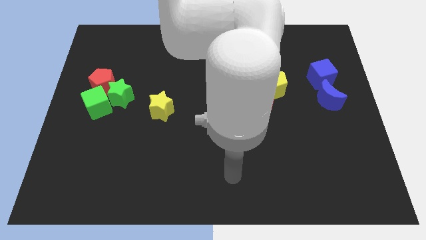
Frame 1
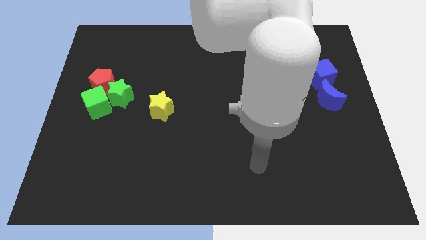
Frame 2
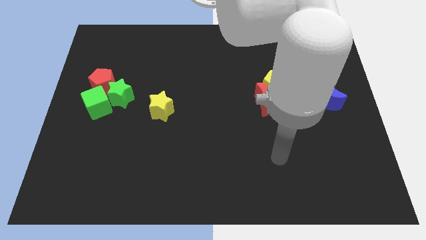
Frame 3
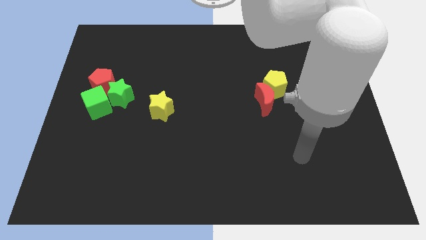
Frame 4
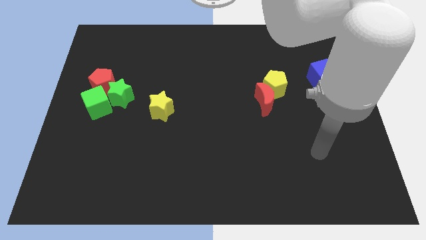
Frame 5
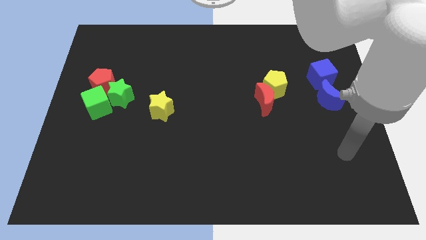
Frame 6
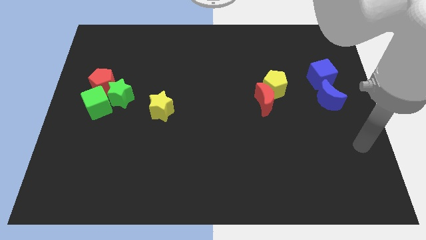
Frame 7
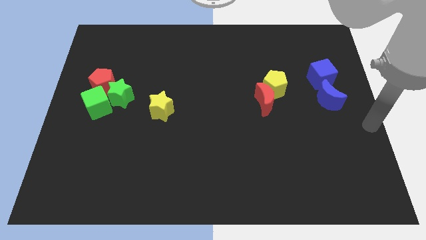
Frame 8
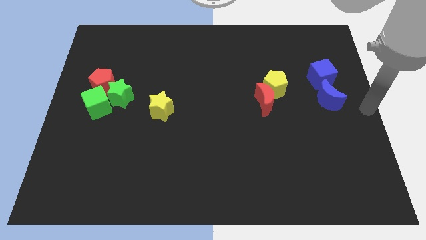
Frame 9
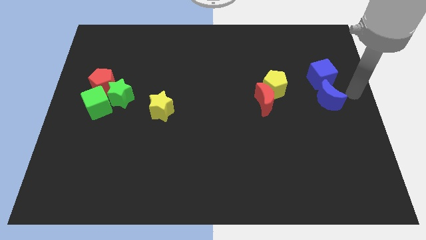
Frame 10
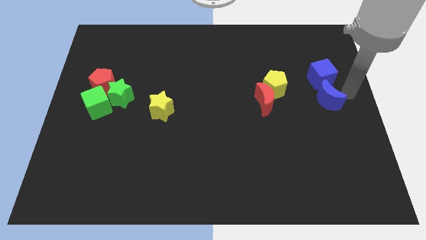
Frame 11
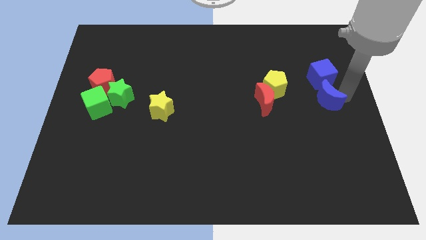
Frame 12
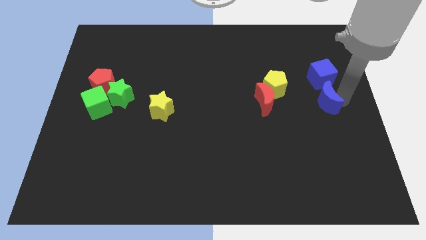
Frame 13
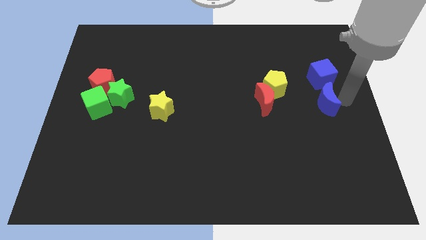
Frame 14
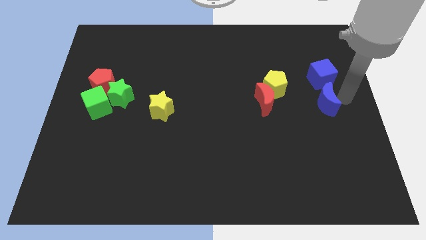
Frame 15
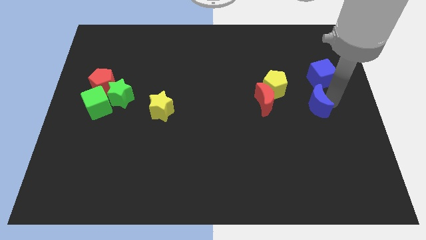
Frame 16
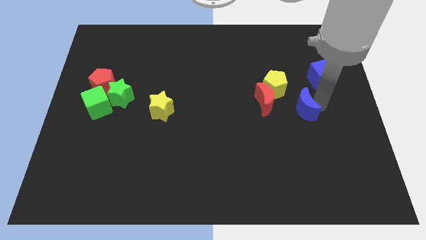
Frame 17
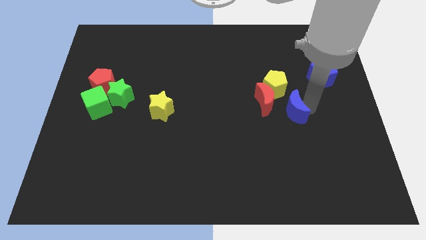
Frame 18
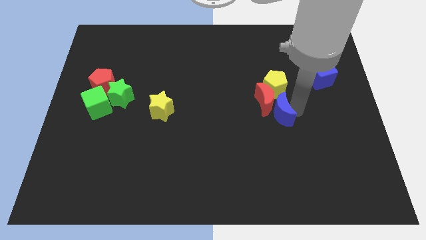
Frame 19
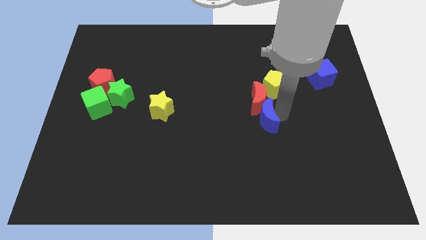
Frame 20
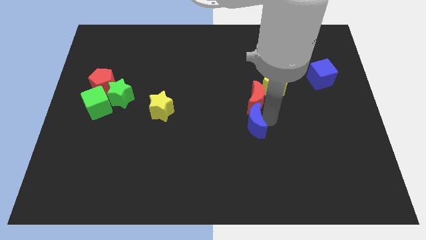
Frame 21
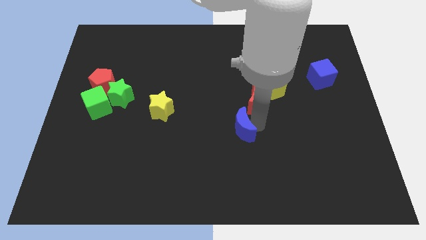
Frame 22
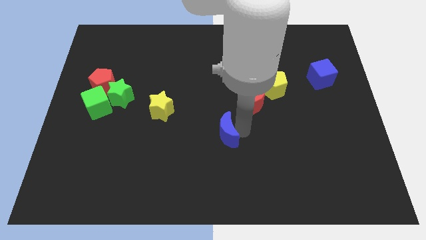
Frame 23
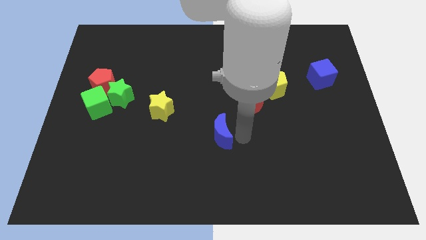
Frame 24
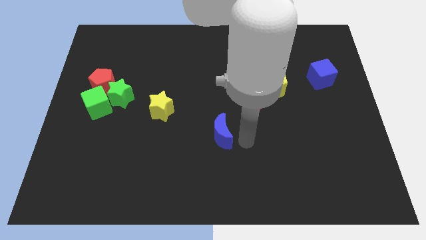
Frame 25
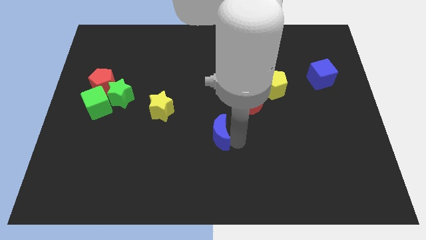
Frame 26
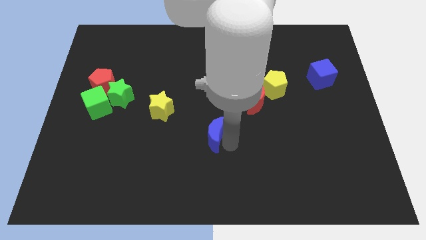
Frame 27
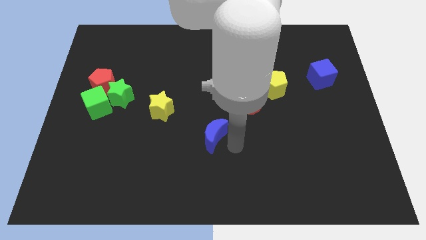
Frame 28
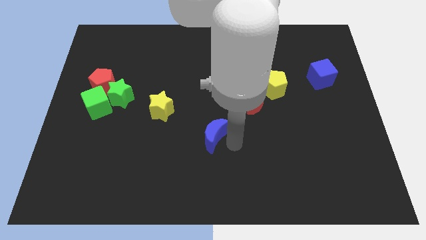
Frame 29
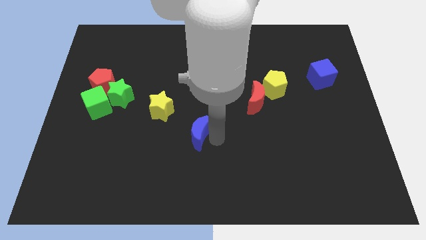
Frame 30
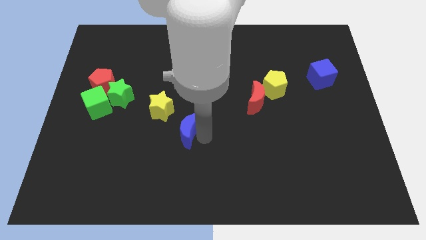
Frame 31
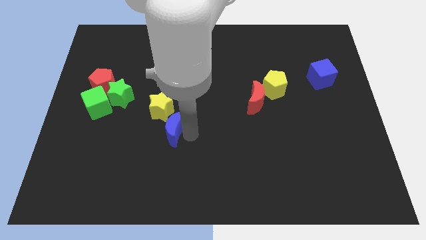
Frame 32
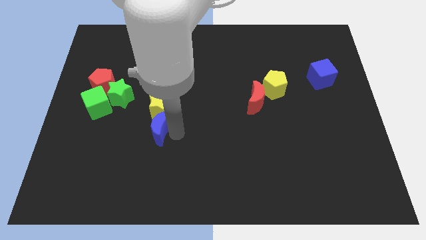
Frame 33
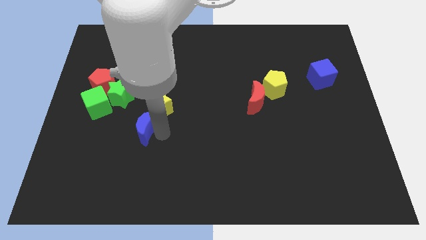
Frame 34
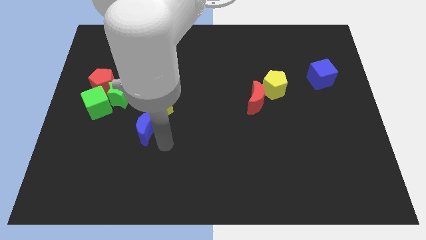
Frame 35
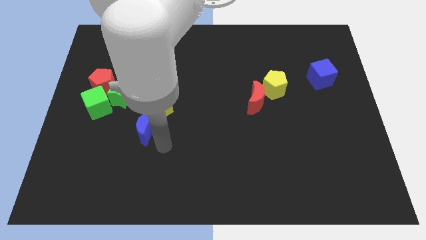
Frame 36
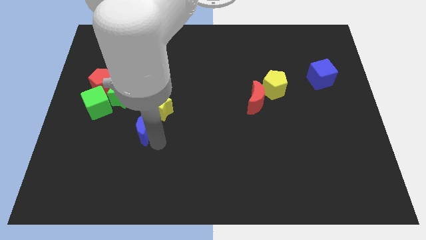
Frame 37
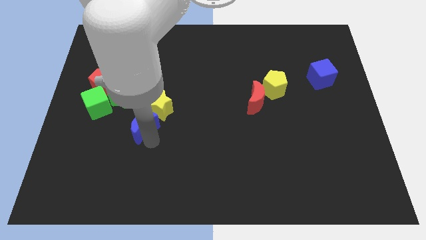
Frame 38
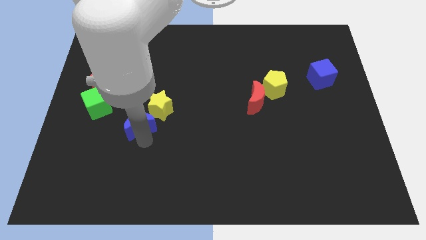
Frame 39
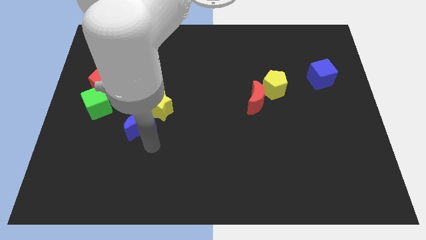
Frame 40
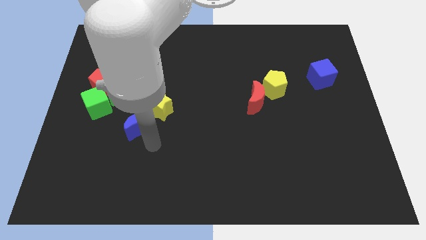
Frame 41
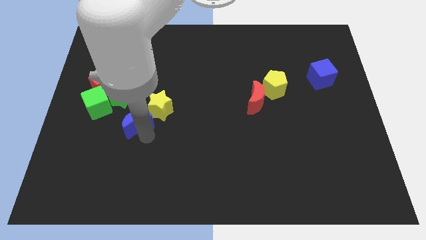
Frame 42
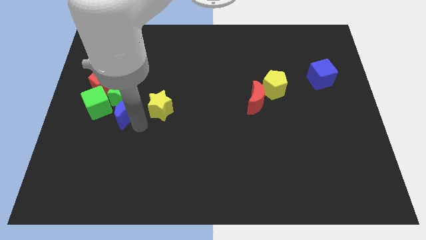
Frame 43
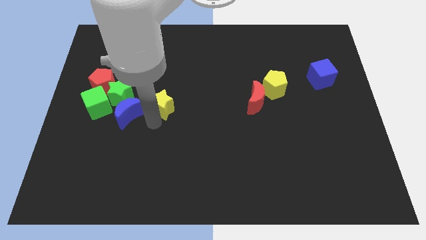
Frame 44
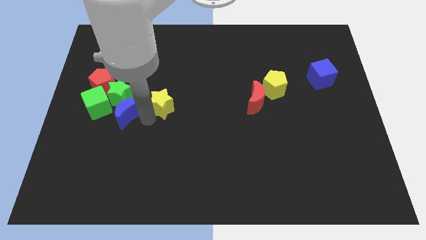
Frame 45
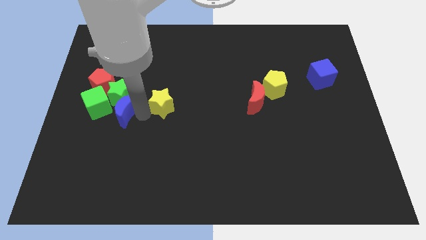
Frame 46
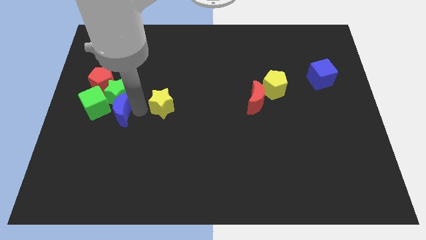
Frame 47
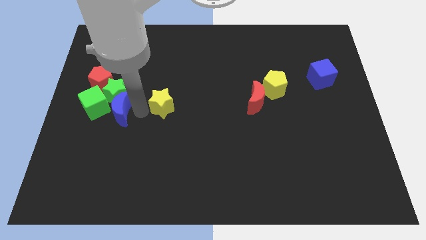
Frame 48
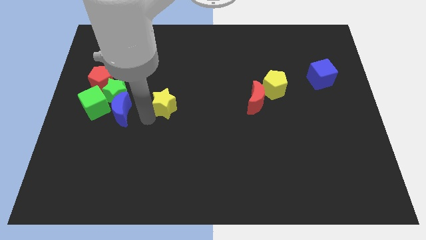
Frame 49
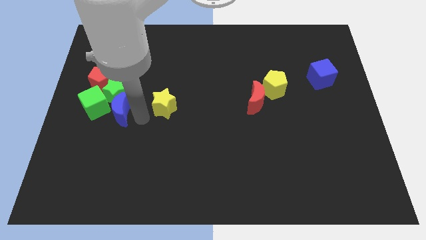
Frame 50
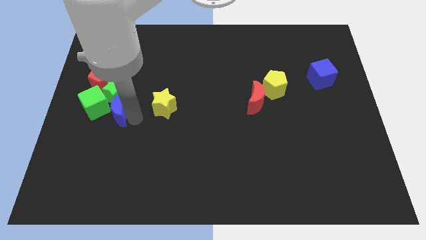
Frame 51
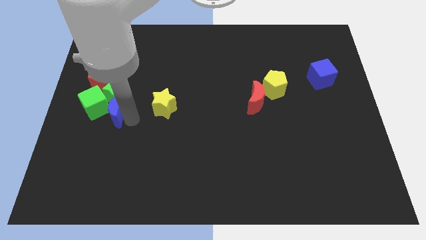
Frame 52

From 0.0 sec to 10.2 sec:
put the blue moon towards the green cube

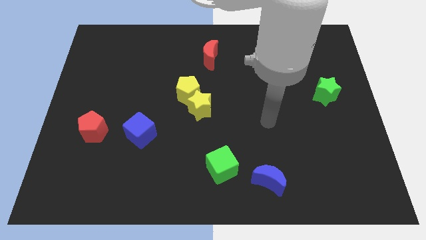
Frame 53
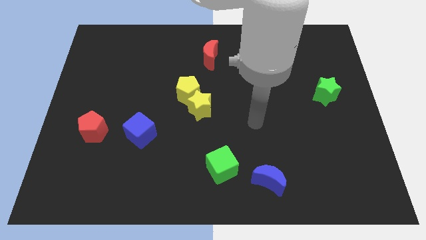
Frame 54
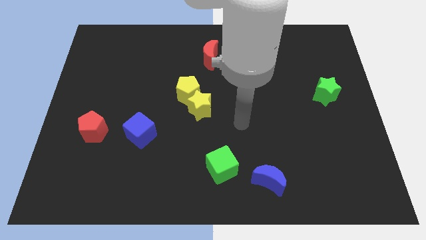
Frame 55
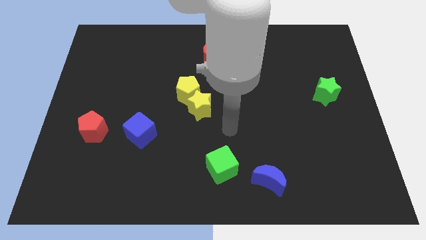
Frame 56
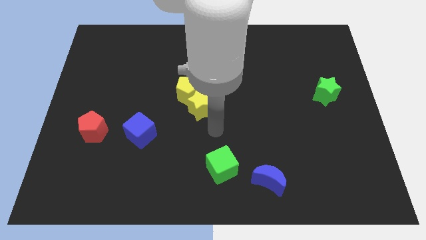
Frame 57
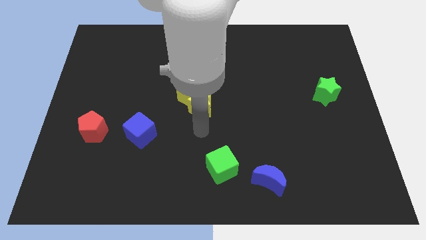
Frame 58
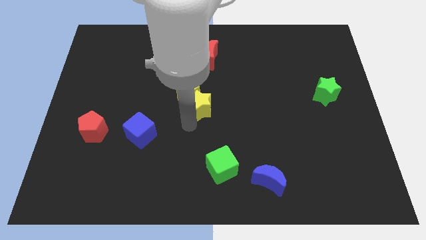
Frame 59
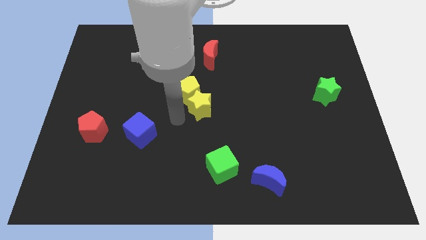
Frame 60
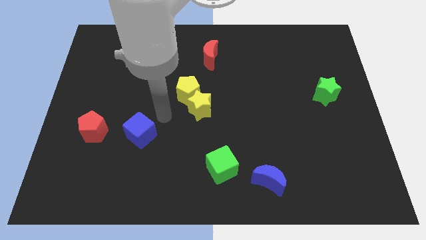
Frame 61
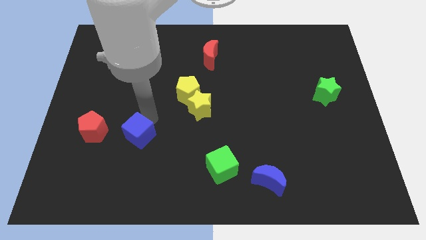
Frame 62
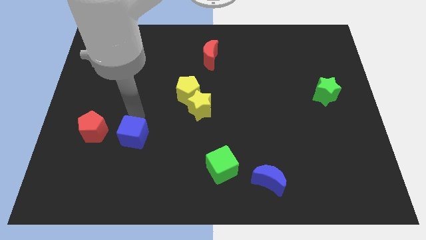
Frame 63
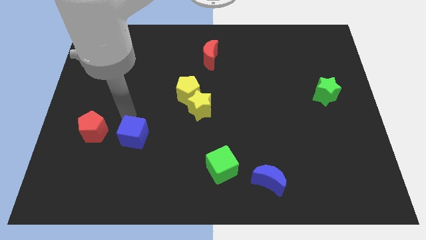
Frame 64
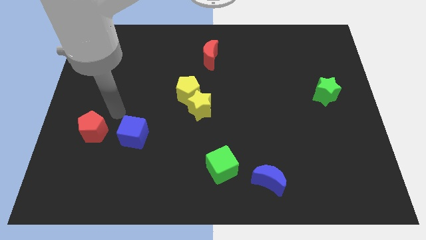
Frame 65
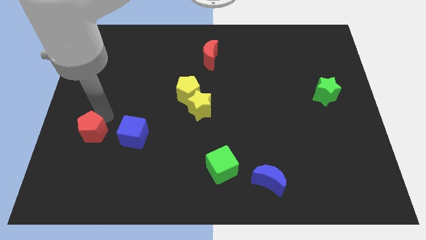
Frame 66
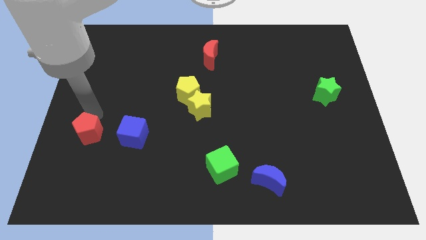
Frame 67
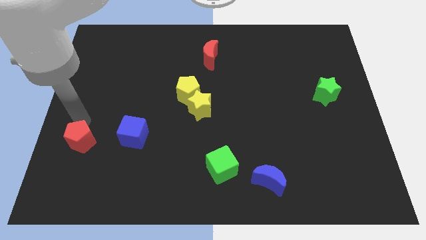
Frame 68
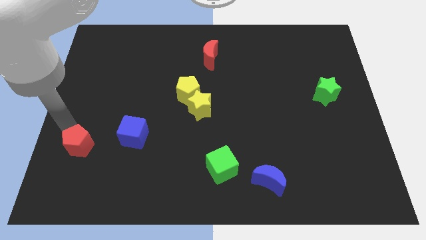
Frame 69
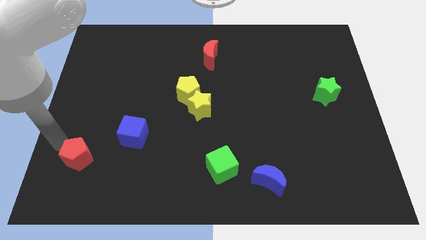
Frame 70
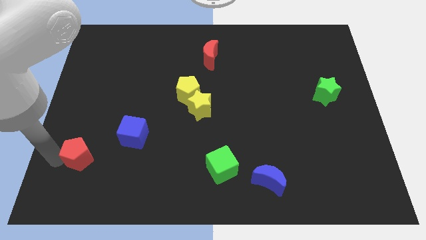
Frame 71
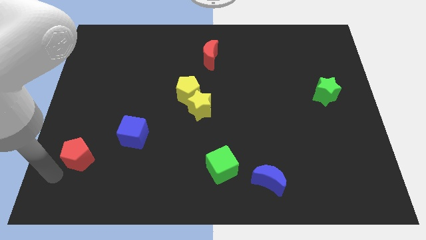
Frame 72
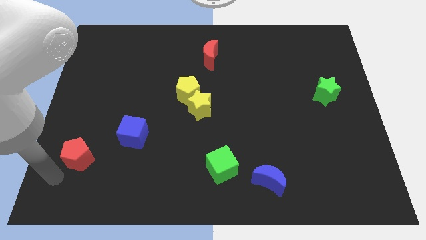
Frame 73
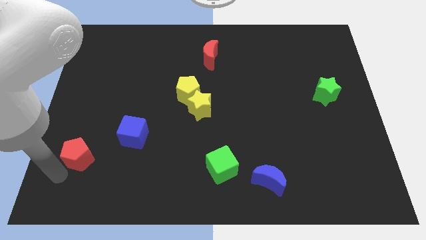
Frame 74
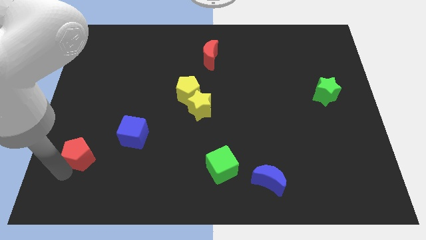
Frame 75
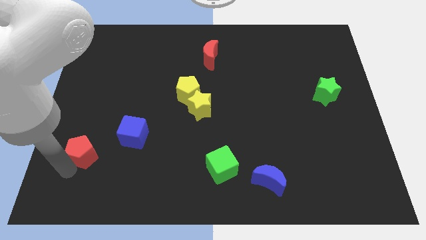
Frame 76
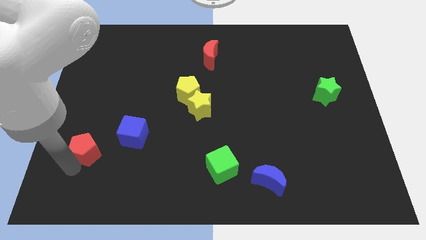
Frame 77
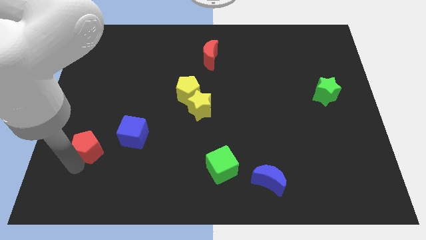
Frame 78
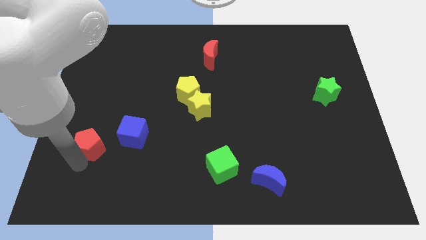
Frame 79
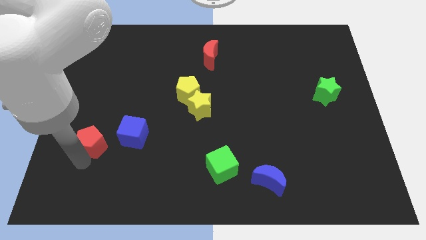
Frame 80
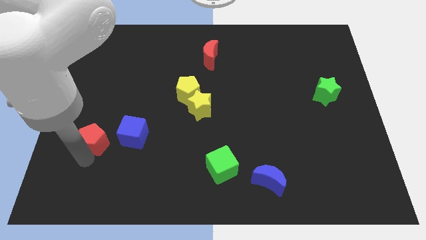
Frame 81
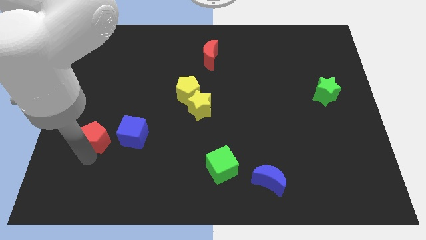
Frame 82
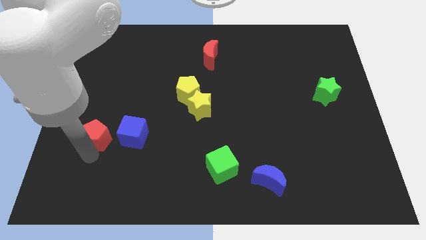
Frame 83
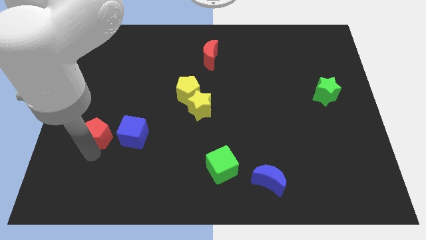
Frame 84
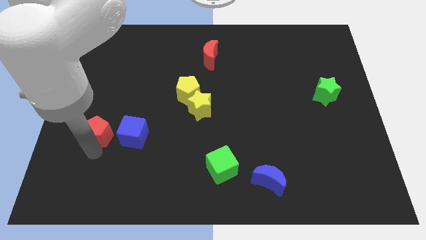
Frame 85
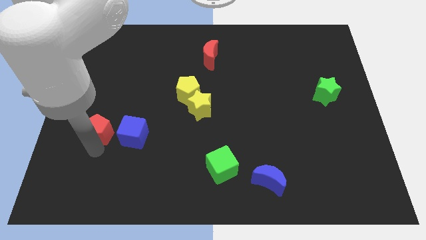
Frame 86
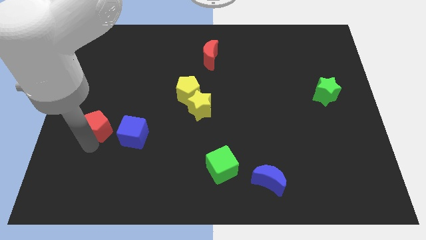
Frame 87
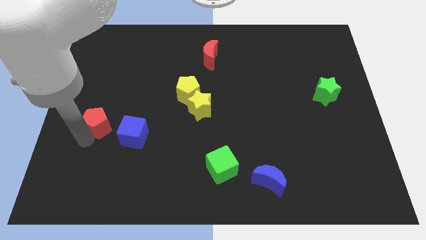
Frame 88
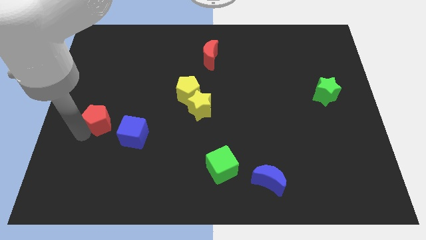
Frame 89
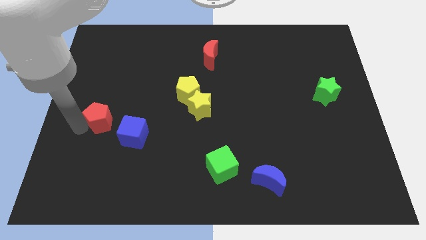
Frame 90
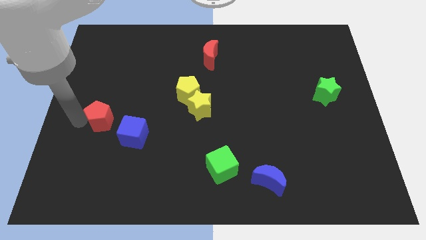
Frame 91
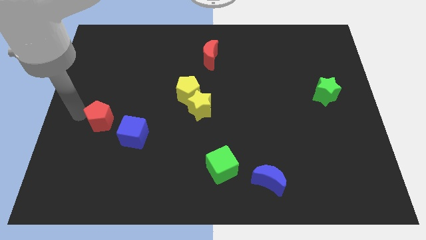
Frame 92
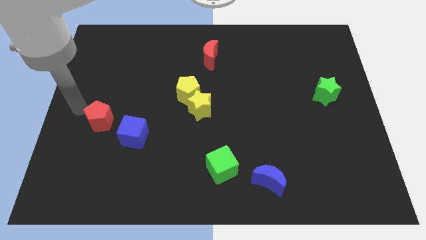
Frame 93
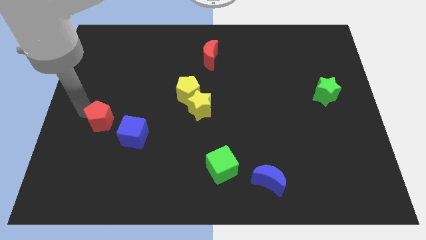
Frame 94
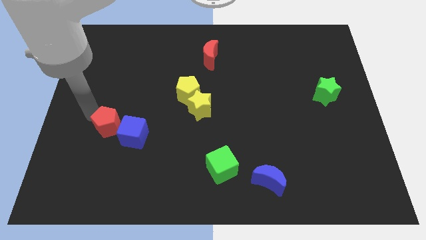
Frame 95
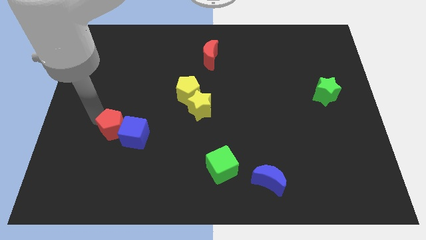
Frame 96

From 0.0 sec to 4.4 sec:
put the red pentagon next to the blue cube
